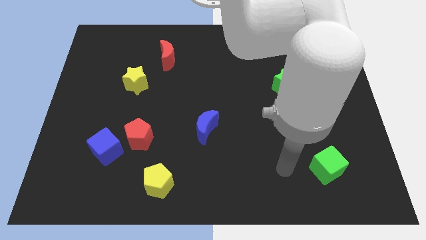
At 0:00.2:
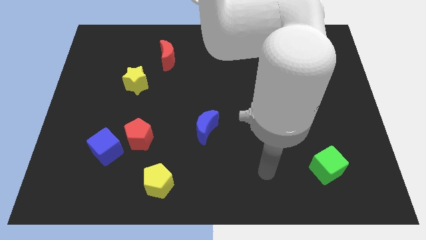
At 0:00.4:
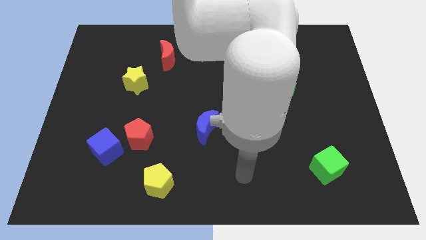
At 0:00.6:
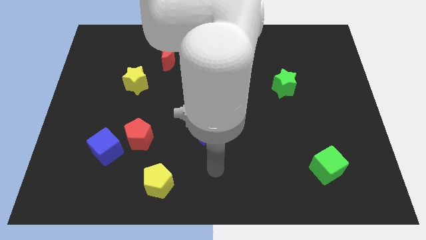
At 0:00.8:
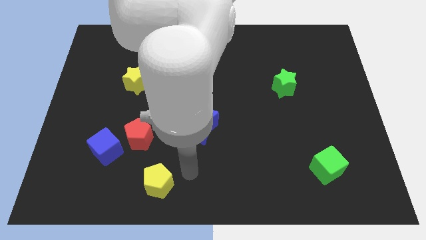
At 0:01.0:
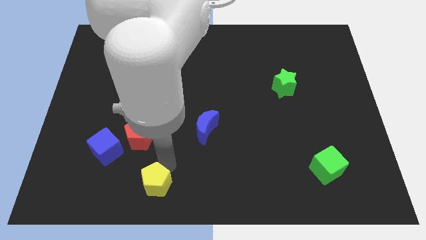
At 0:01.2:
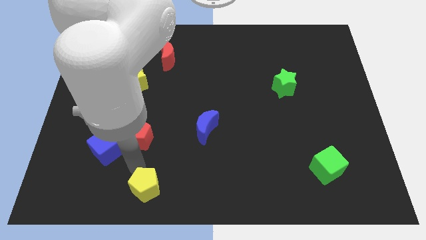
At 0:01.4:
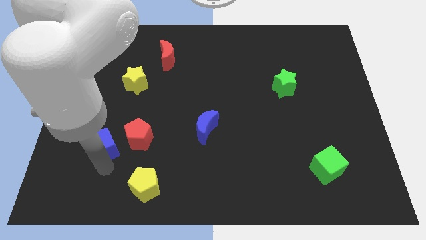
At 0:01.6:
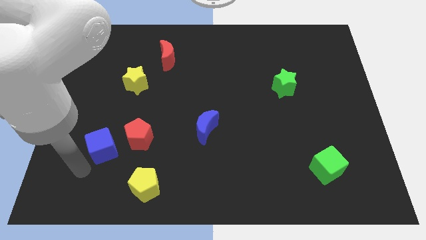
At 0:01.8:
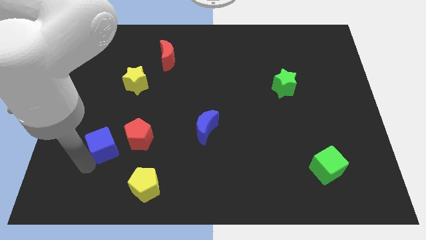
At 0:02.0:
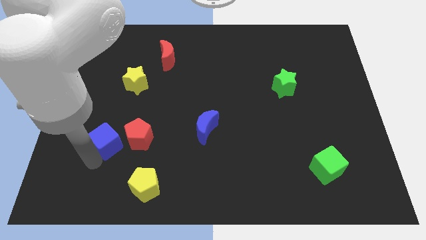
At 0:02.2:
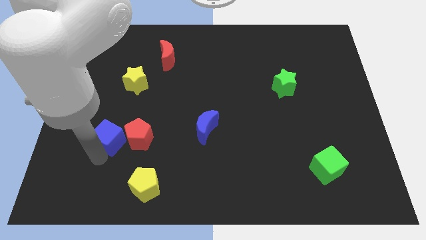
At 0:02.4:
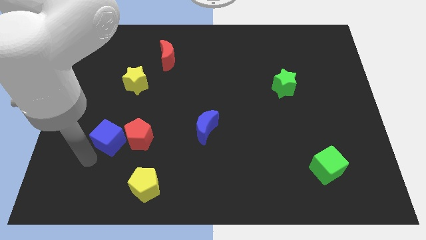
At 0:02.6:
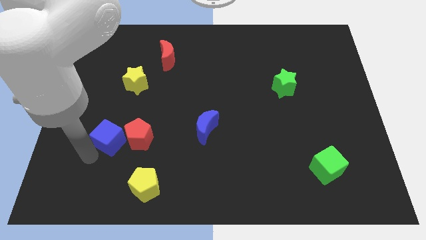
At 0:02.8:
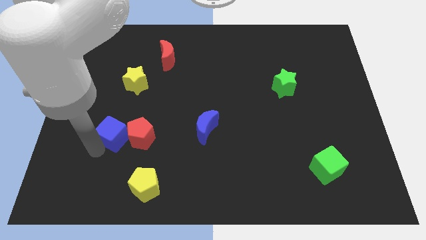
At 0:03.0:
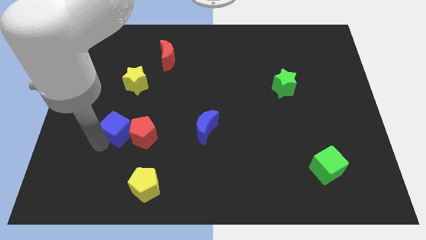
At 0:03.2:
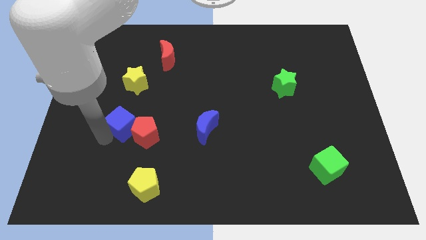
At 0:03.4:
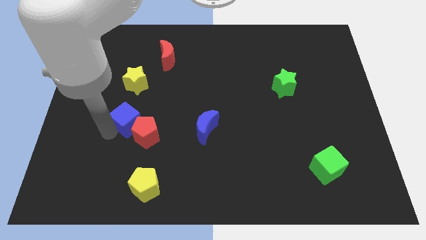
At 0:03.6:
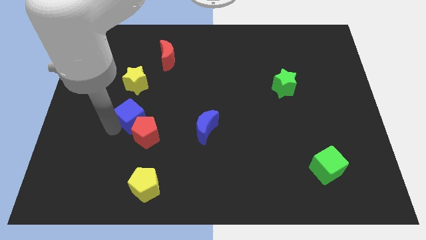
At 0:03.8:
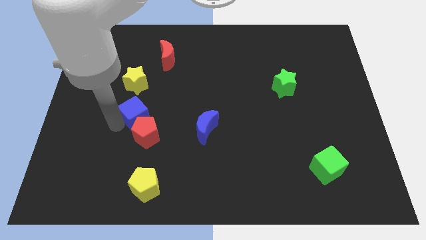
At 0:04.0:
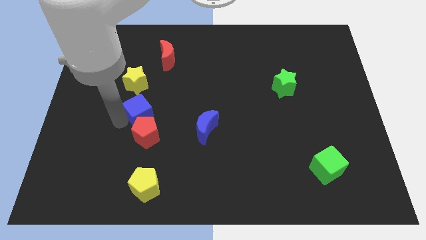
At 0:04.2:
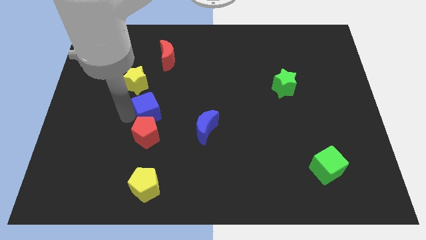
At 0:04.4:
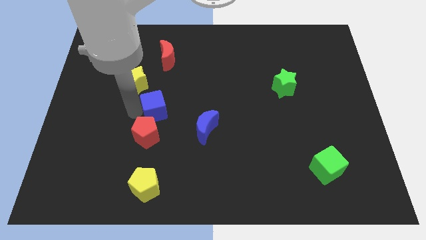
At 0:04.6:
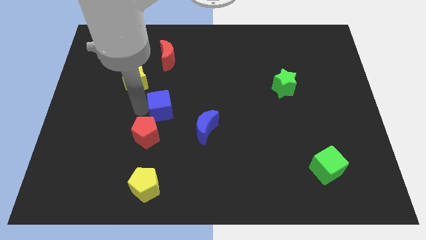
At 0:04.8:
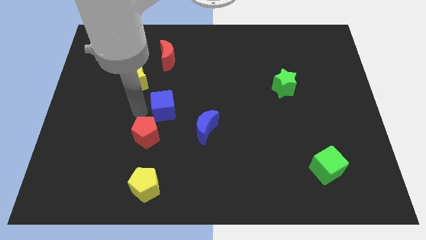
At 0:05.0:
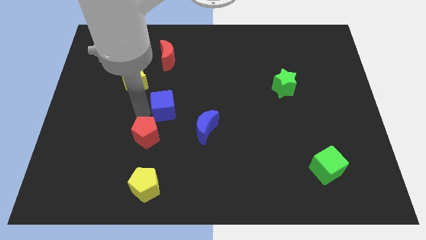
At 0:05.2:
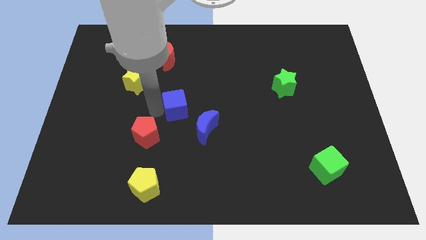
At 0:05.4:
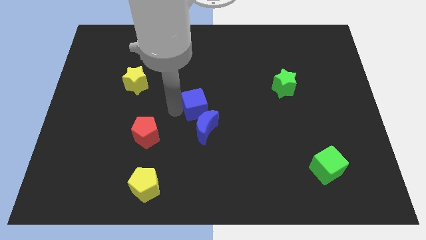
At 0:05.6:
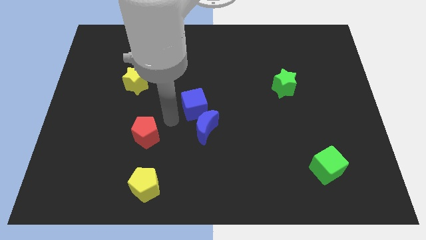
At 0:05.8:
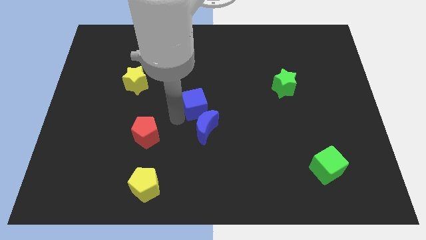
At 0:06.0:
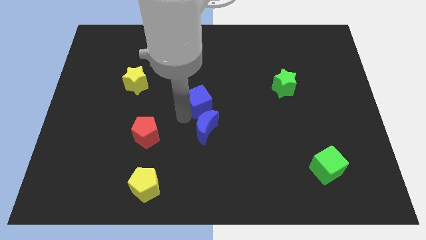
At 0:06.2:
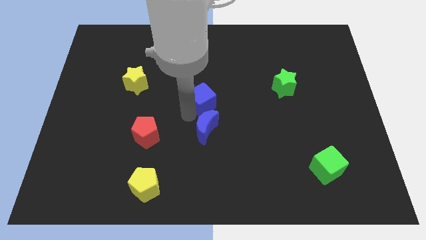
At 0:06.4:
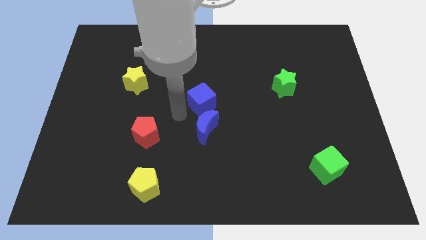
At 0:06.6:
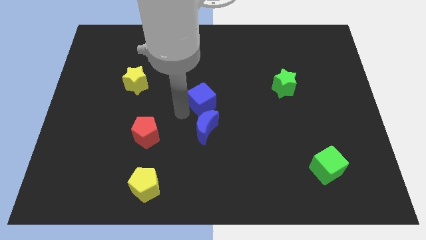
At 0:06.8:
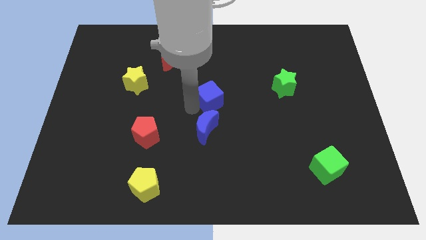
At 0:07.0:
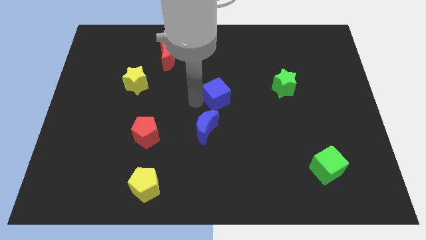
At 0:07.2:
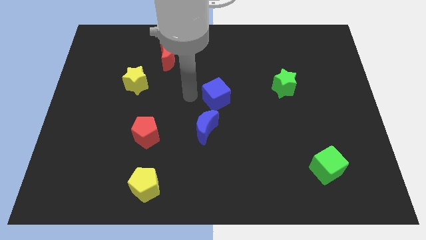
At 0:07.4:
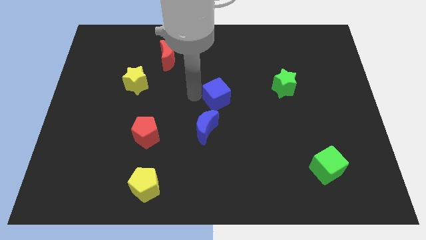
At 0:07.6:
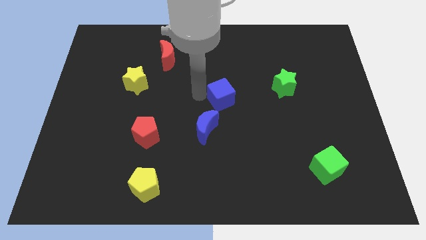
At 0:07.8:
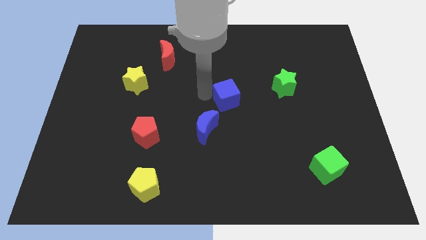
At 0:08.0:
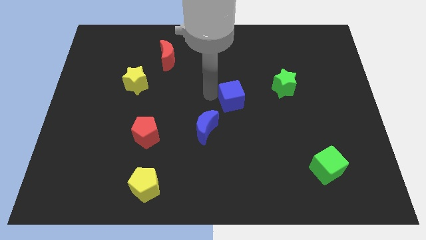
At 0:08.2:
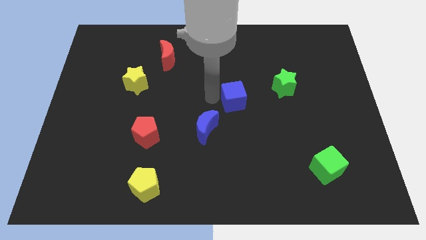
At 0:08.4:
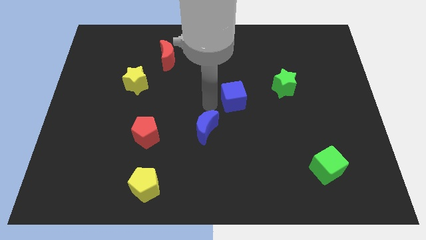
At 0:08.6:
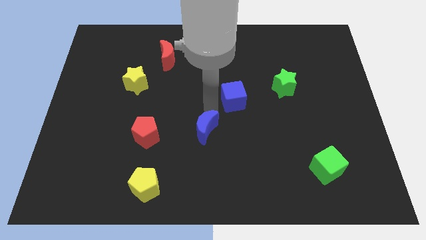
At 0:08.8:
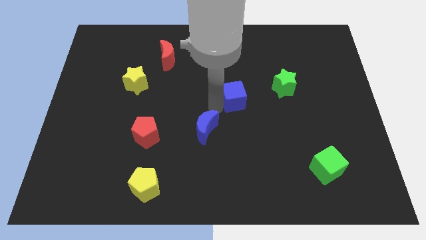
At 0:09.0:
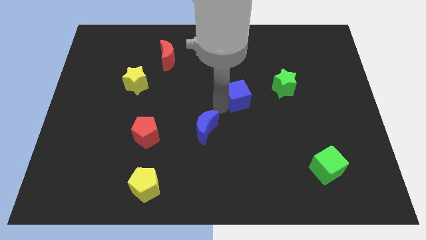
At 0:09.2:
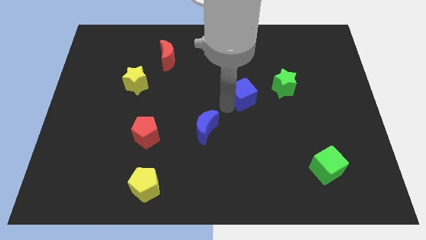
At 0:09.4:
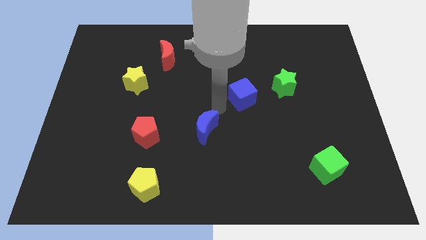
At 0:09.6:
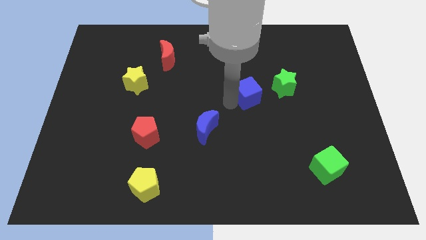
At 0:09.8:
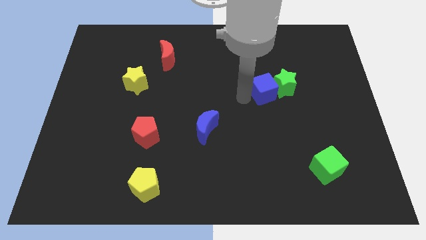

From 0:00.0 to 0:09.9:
push the blue cube towards the green star

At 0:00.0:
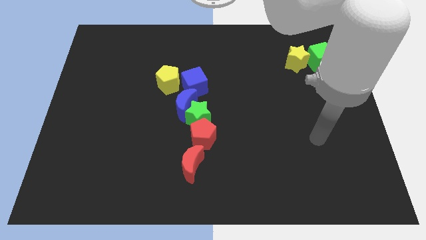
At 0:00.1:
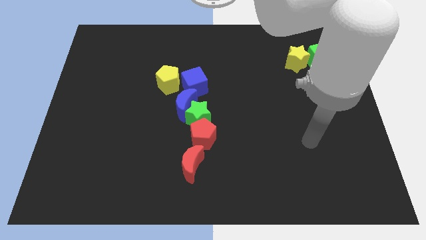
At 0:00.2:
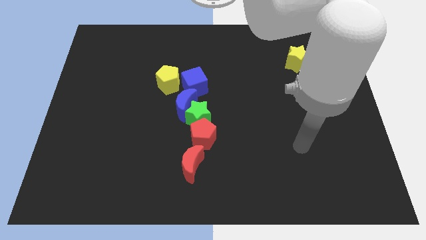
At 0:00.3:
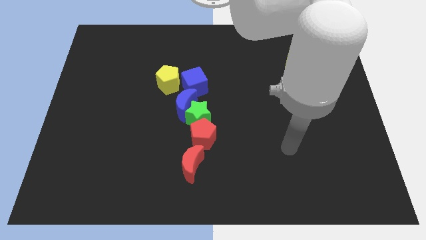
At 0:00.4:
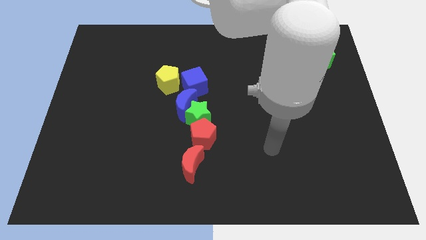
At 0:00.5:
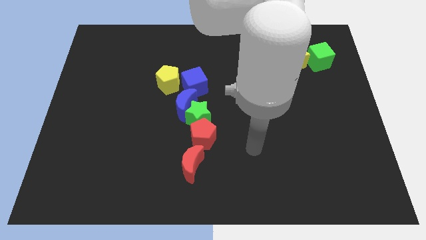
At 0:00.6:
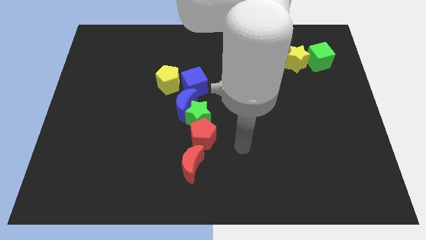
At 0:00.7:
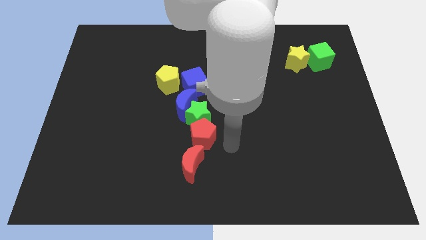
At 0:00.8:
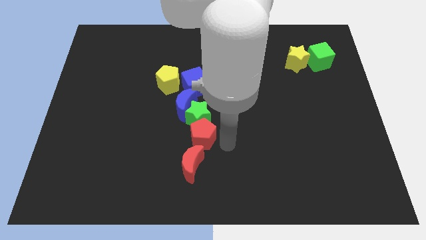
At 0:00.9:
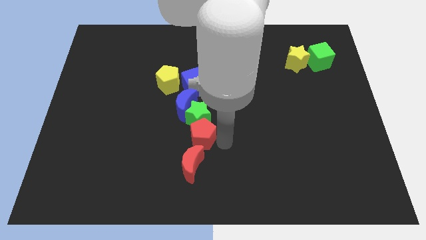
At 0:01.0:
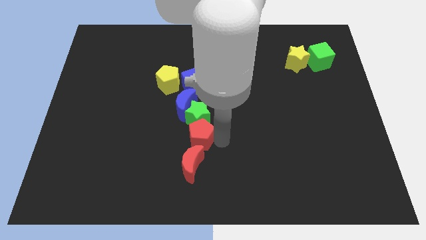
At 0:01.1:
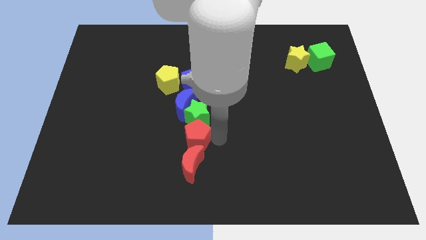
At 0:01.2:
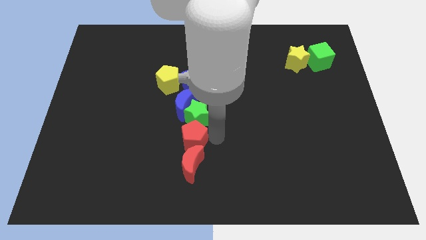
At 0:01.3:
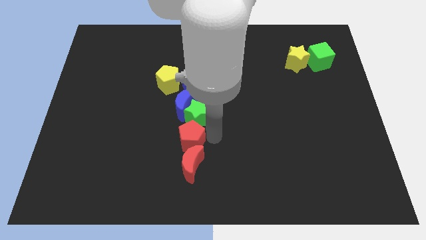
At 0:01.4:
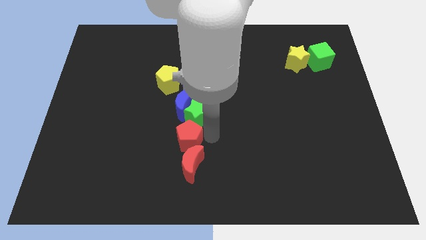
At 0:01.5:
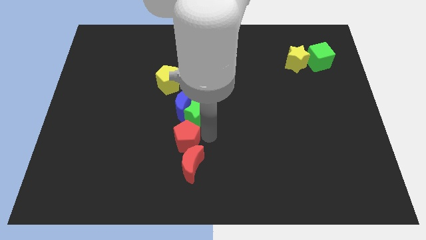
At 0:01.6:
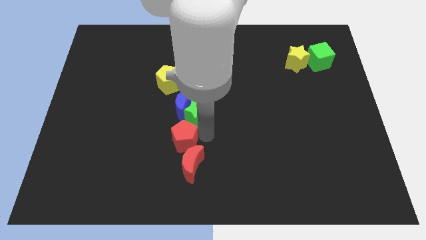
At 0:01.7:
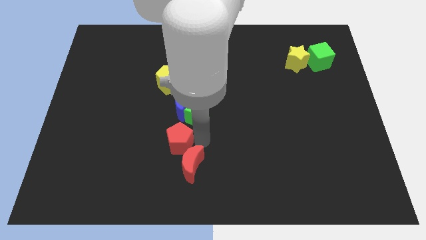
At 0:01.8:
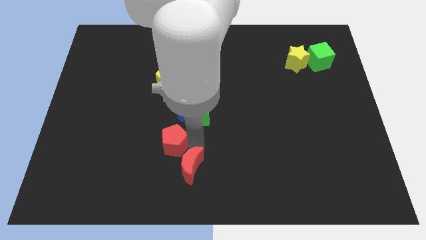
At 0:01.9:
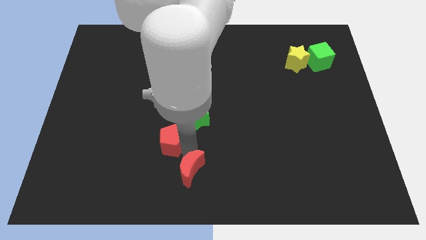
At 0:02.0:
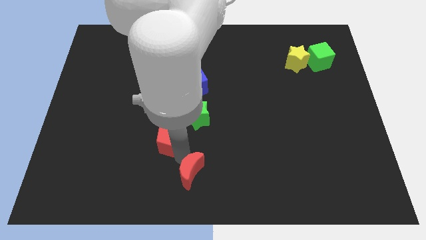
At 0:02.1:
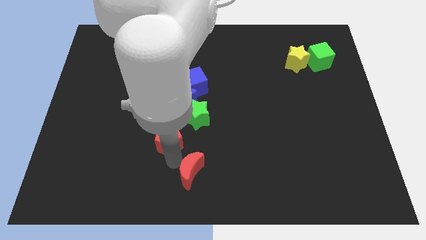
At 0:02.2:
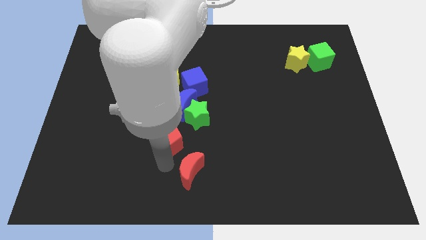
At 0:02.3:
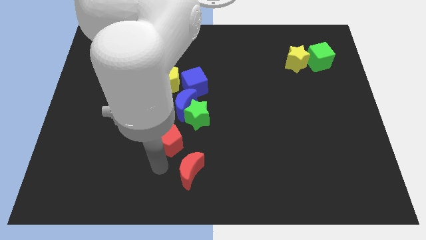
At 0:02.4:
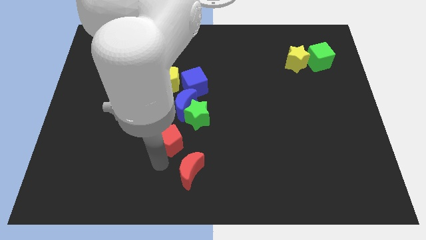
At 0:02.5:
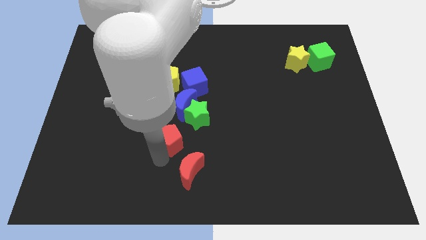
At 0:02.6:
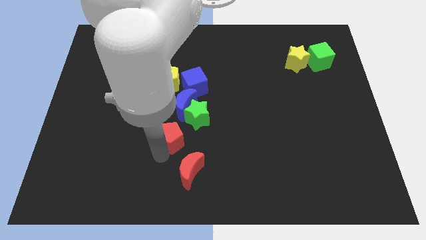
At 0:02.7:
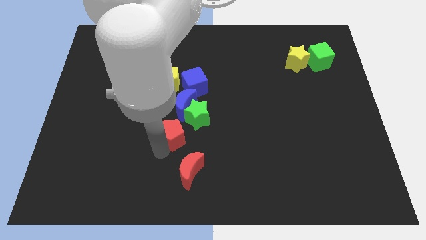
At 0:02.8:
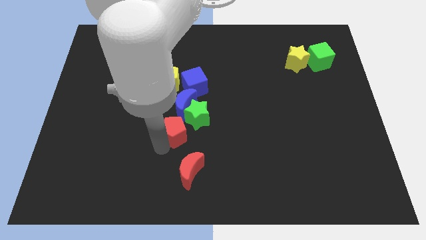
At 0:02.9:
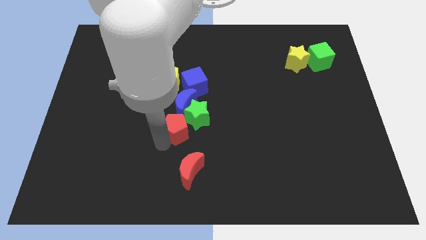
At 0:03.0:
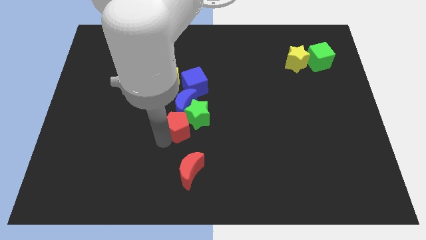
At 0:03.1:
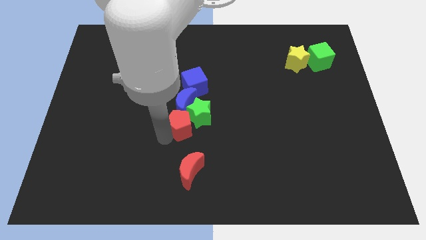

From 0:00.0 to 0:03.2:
slide the red pentagon next to the blue moon
